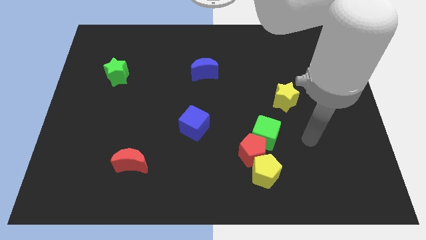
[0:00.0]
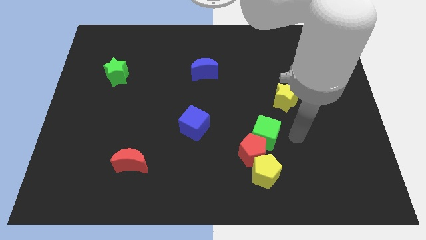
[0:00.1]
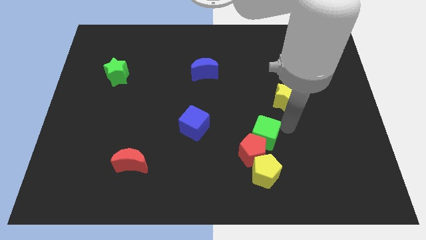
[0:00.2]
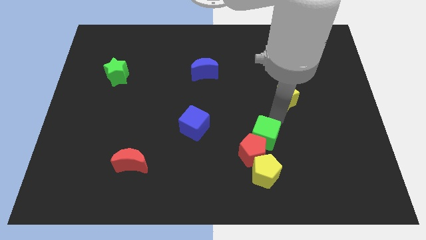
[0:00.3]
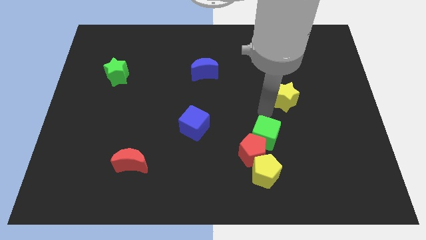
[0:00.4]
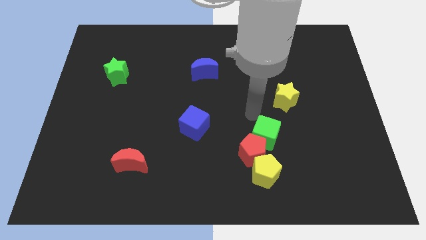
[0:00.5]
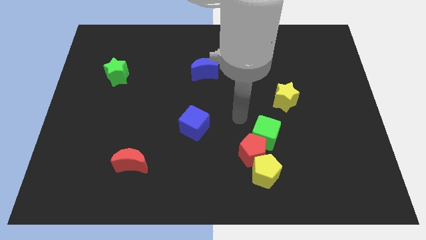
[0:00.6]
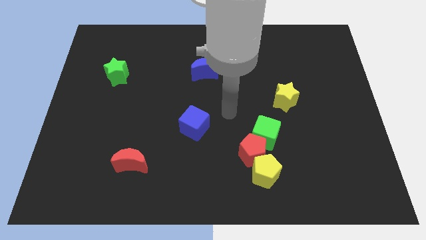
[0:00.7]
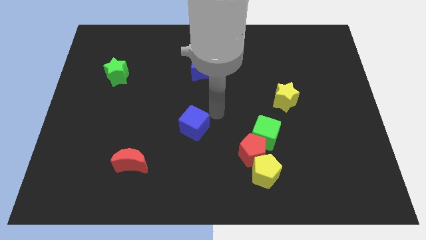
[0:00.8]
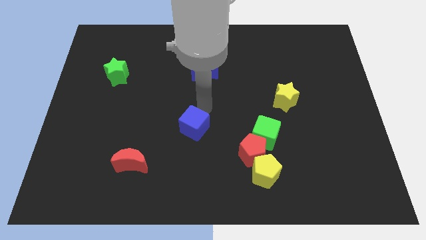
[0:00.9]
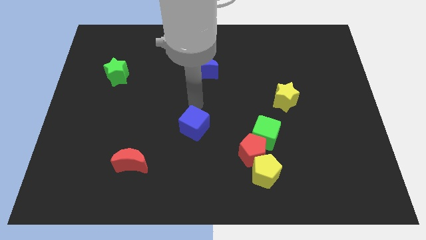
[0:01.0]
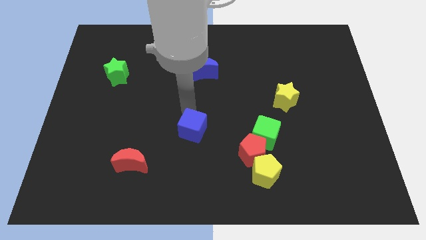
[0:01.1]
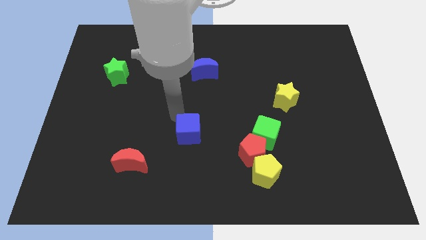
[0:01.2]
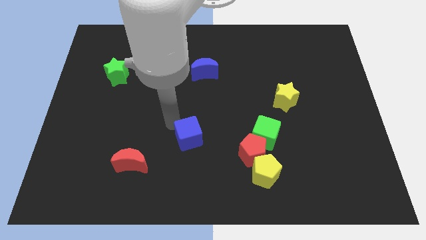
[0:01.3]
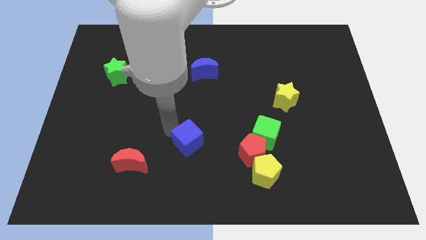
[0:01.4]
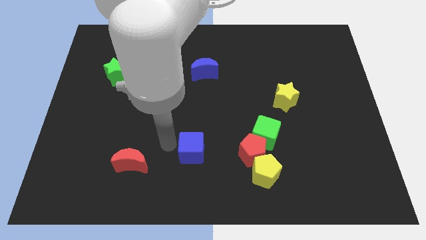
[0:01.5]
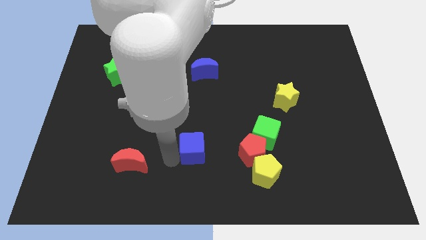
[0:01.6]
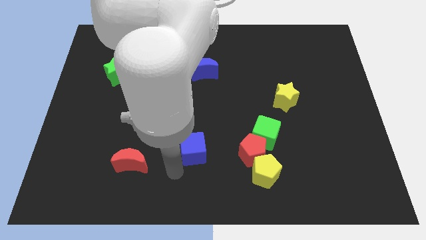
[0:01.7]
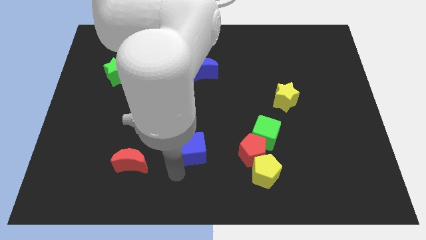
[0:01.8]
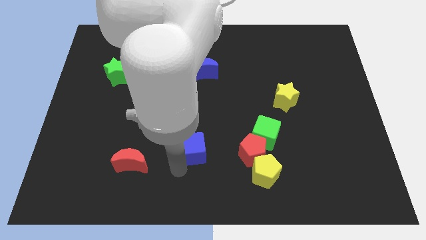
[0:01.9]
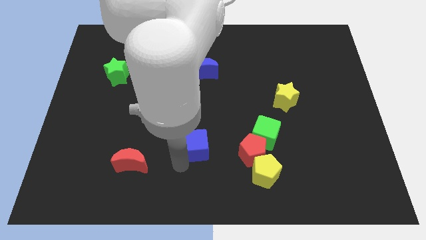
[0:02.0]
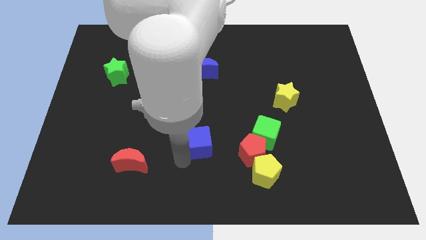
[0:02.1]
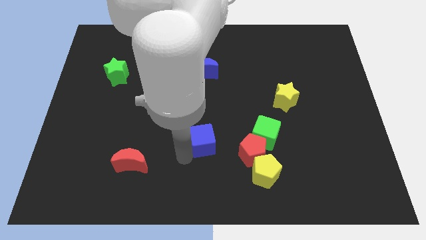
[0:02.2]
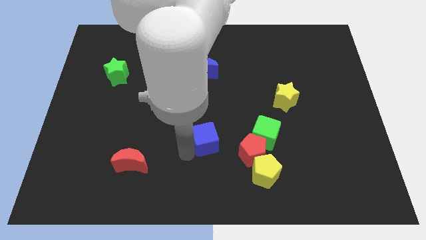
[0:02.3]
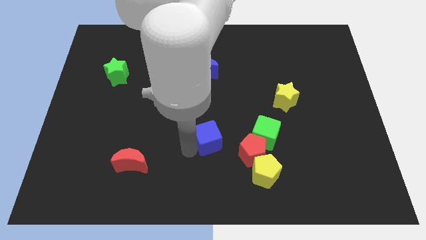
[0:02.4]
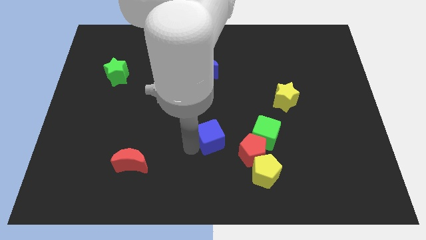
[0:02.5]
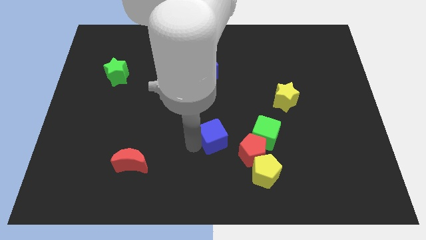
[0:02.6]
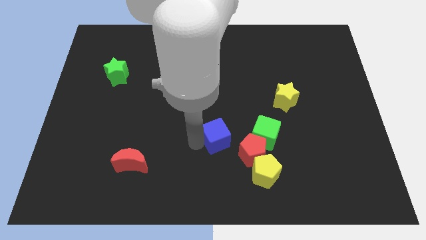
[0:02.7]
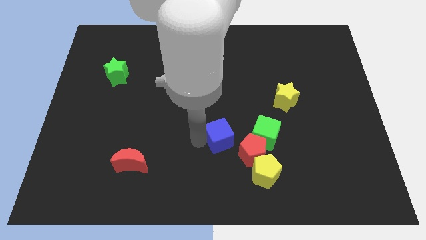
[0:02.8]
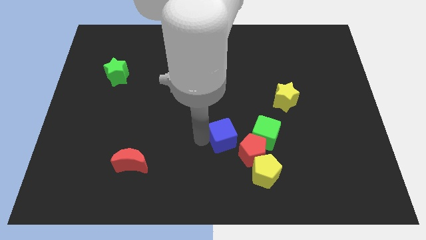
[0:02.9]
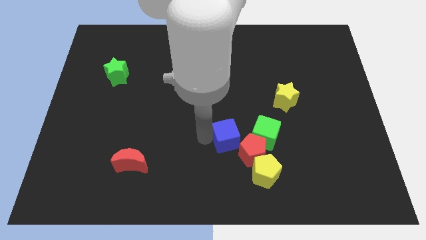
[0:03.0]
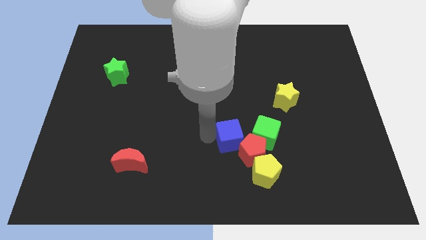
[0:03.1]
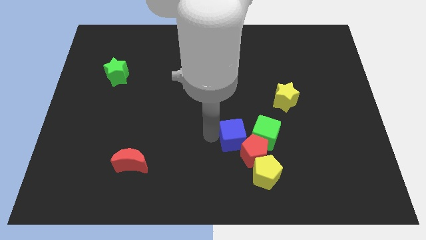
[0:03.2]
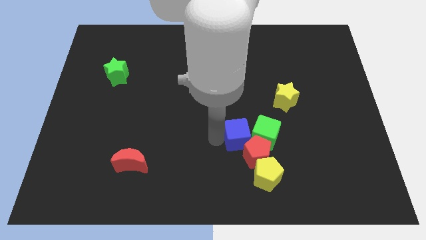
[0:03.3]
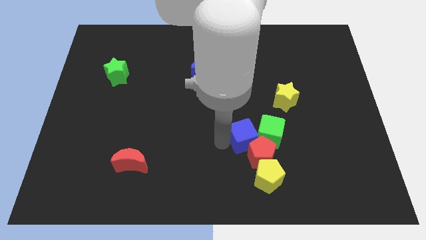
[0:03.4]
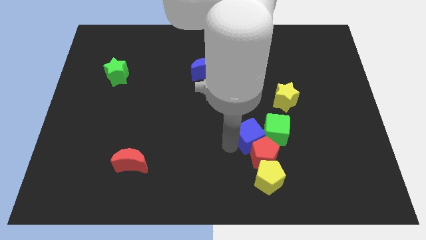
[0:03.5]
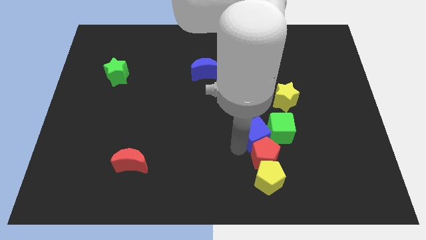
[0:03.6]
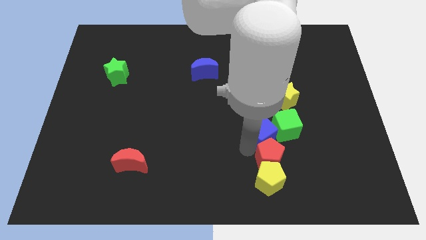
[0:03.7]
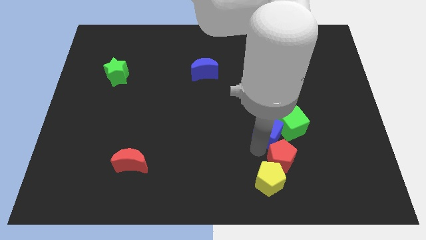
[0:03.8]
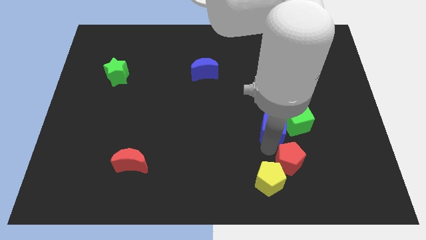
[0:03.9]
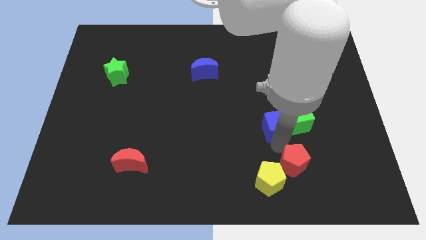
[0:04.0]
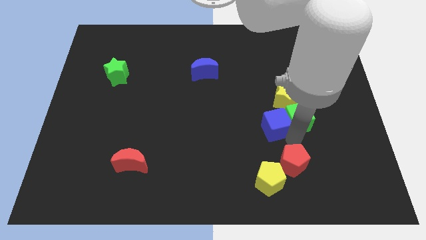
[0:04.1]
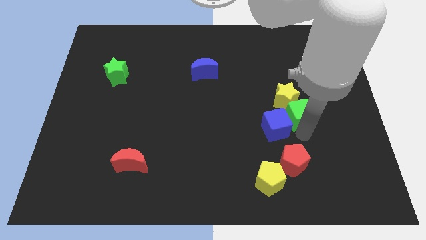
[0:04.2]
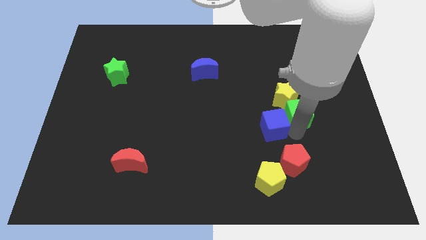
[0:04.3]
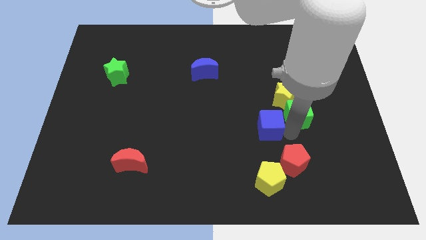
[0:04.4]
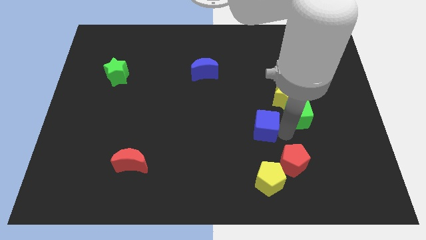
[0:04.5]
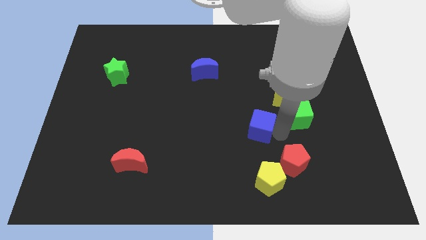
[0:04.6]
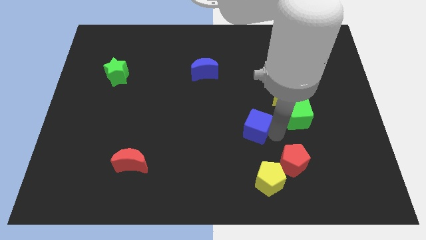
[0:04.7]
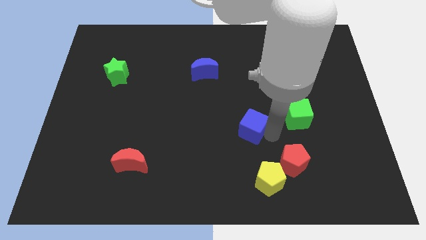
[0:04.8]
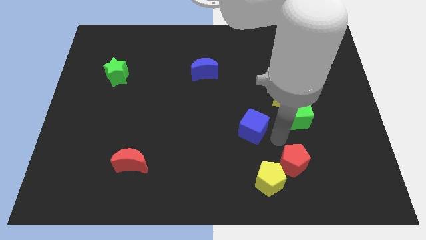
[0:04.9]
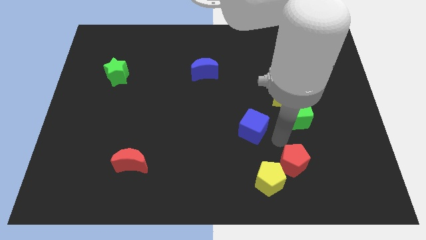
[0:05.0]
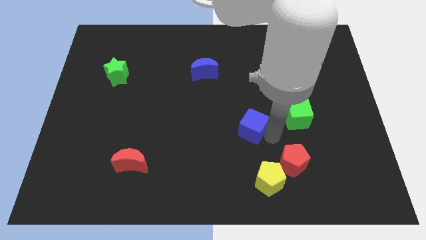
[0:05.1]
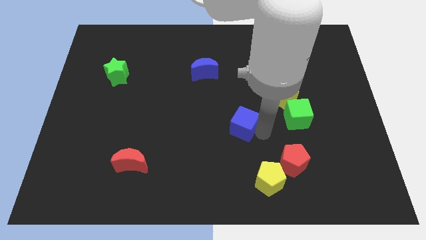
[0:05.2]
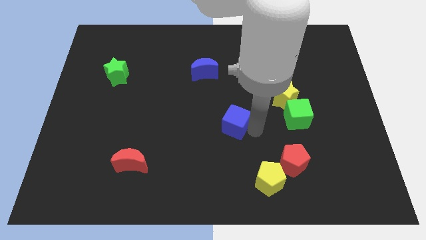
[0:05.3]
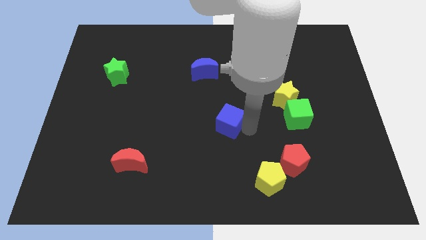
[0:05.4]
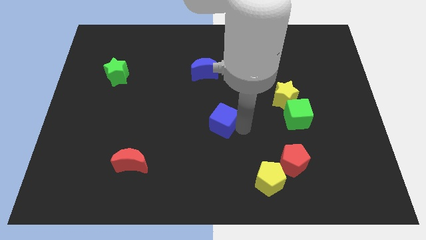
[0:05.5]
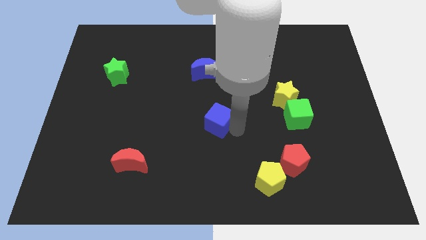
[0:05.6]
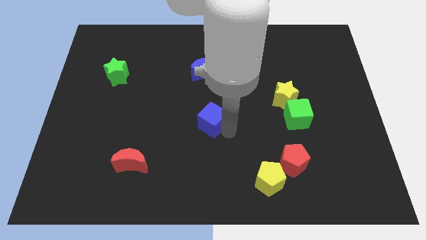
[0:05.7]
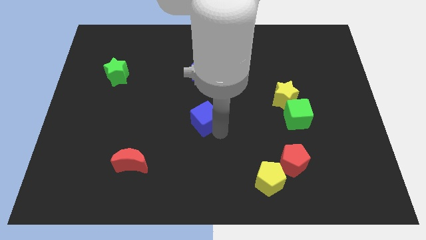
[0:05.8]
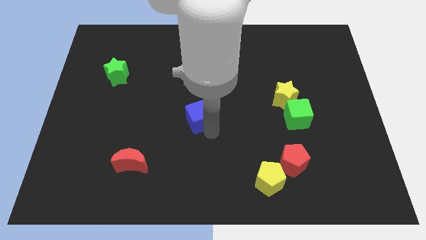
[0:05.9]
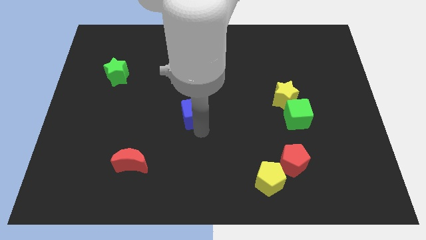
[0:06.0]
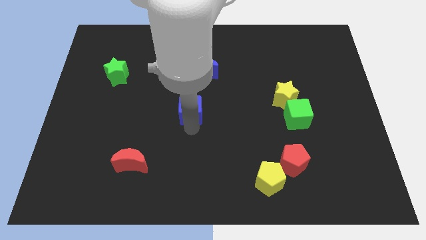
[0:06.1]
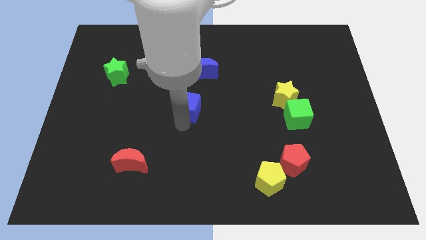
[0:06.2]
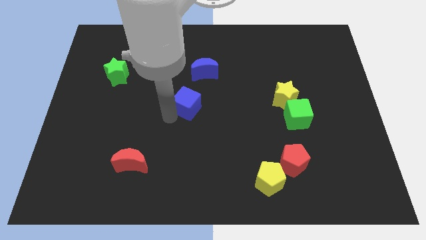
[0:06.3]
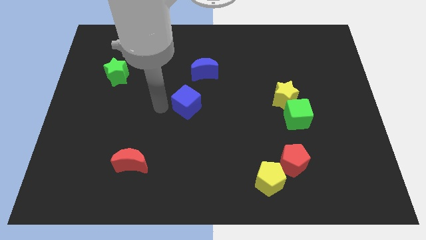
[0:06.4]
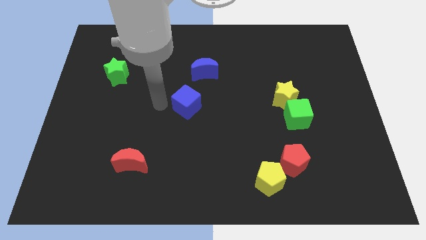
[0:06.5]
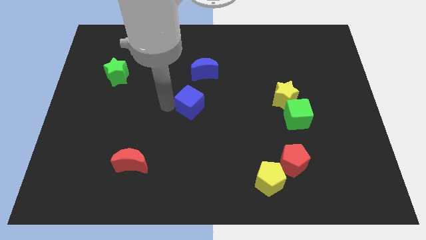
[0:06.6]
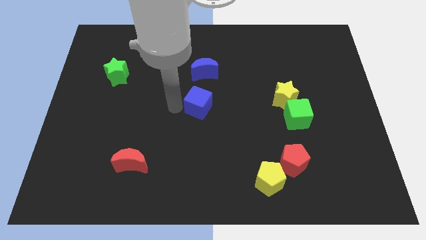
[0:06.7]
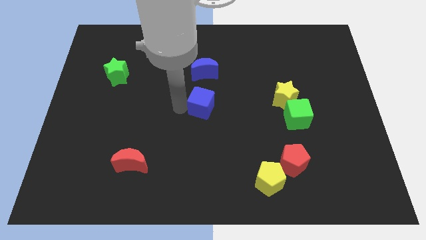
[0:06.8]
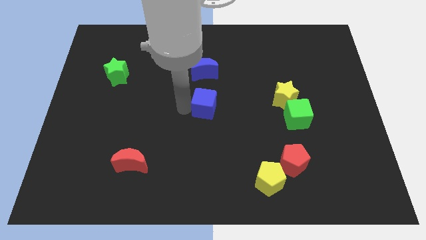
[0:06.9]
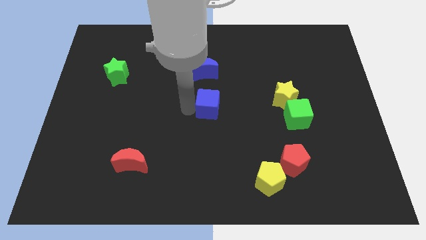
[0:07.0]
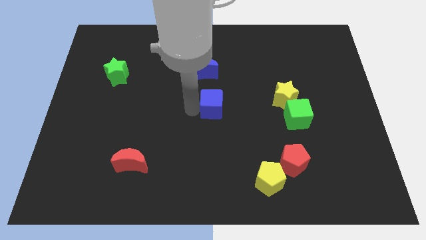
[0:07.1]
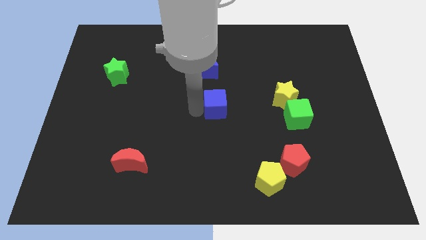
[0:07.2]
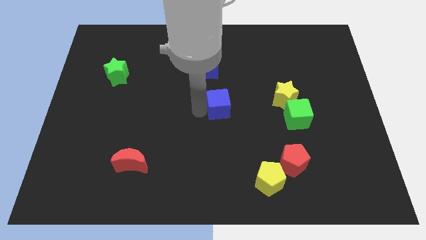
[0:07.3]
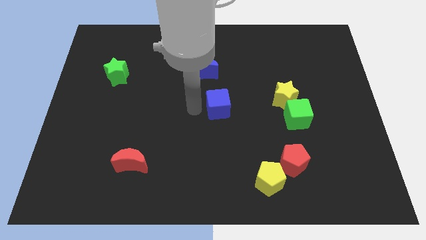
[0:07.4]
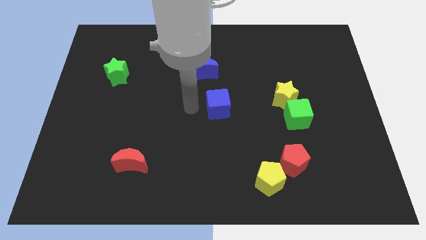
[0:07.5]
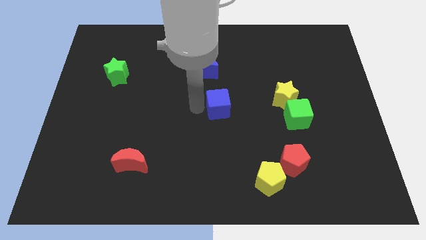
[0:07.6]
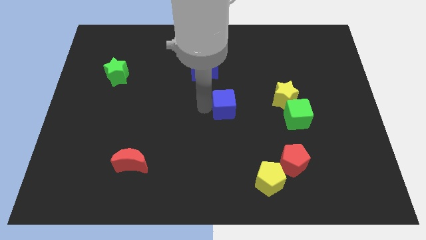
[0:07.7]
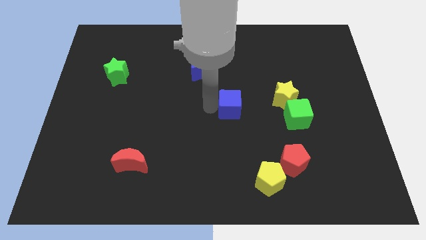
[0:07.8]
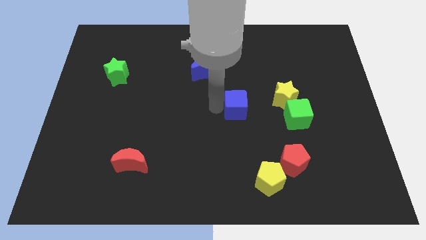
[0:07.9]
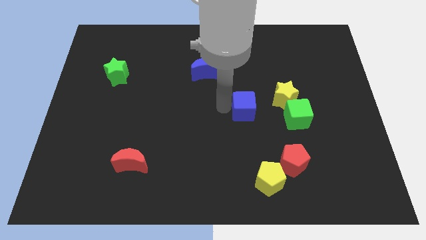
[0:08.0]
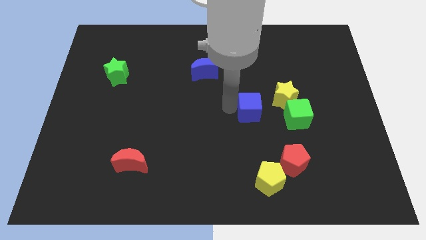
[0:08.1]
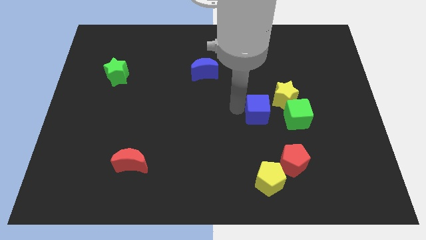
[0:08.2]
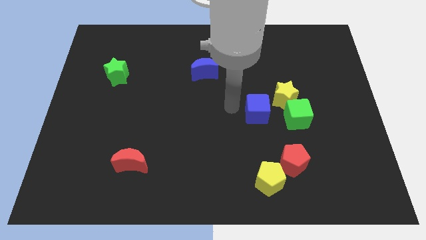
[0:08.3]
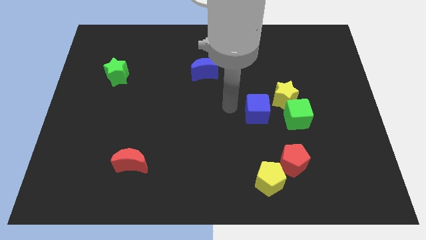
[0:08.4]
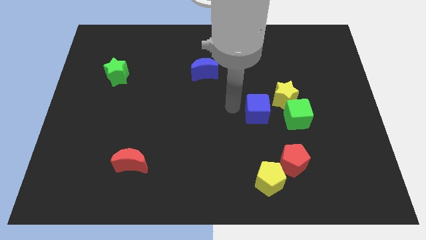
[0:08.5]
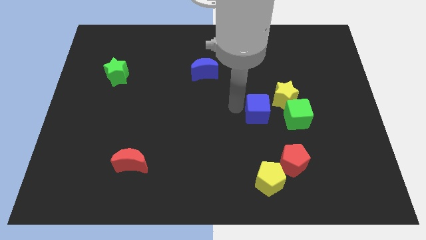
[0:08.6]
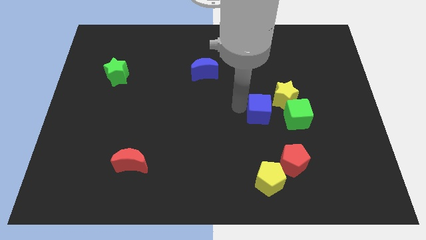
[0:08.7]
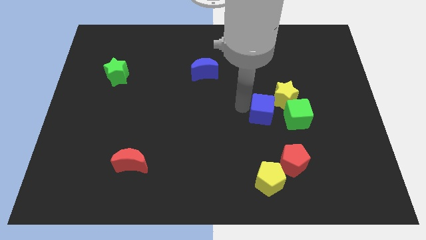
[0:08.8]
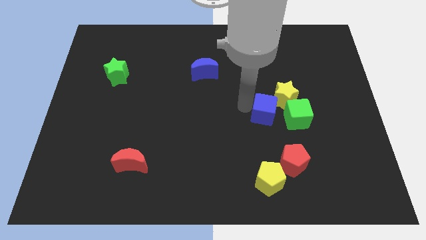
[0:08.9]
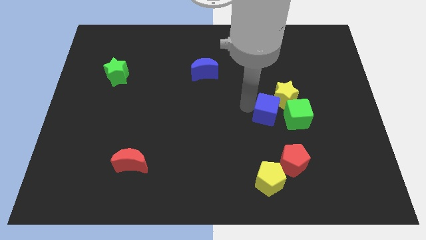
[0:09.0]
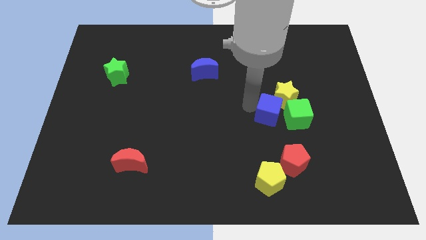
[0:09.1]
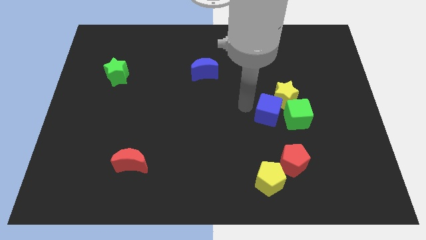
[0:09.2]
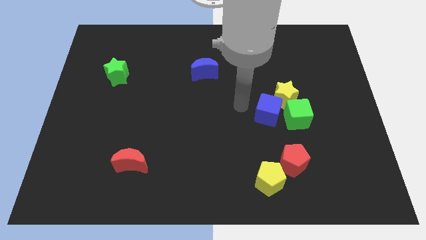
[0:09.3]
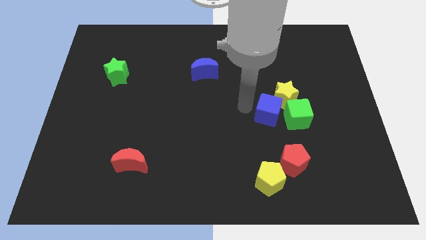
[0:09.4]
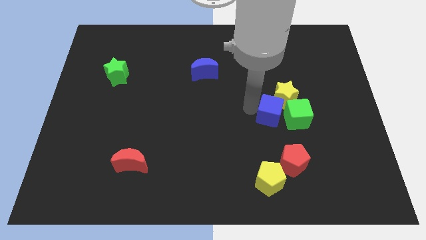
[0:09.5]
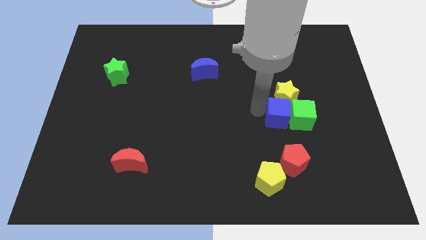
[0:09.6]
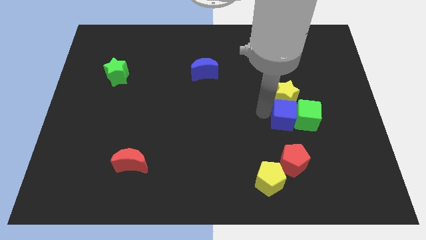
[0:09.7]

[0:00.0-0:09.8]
move the blue cube right
